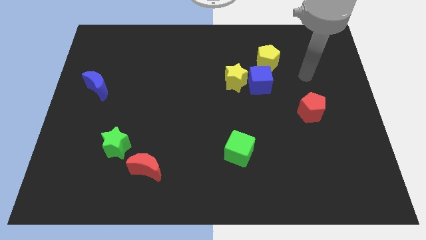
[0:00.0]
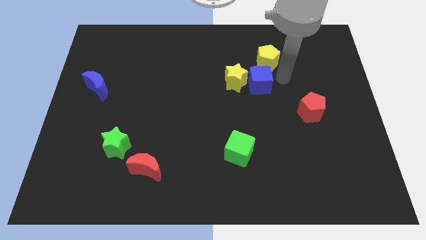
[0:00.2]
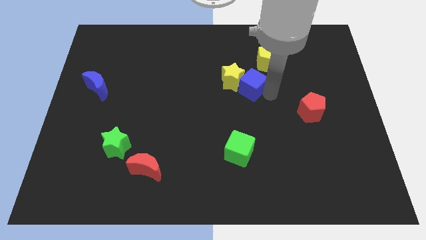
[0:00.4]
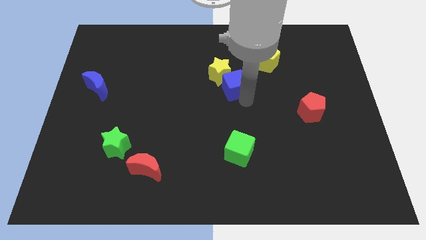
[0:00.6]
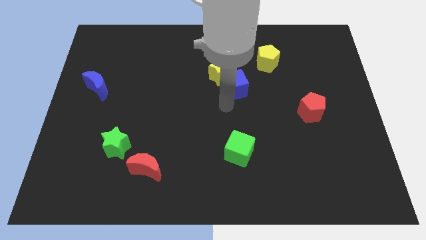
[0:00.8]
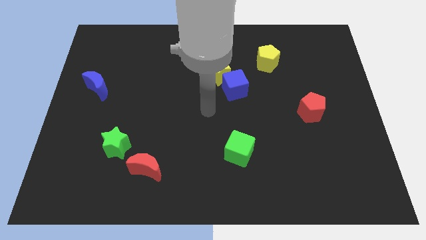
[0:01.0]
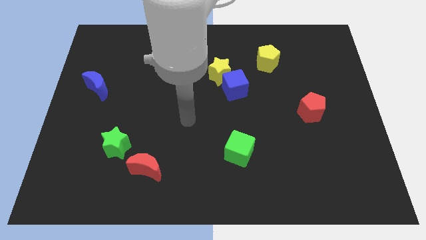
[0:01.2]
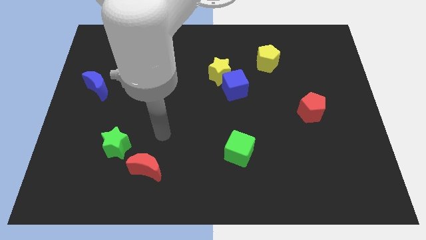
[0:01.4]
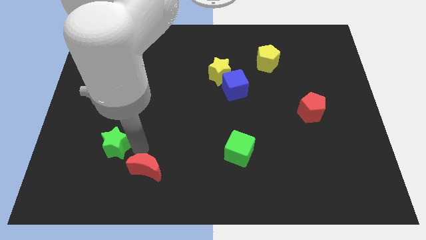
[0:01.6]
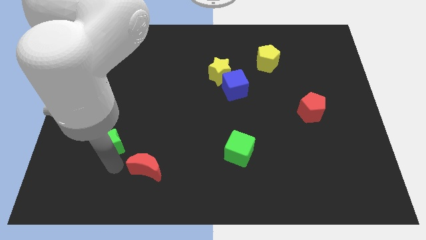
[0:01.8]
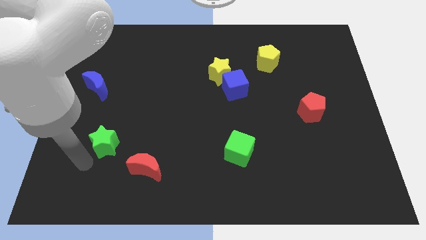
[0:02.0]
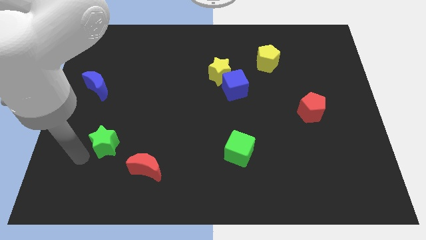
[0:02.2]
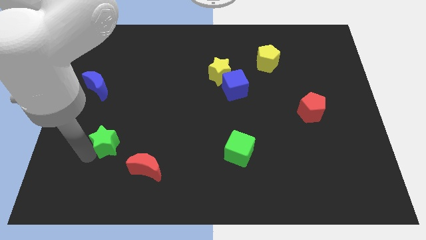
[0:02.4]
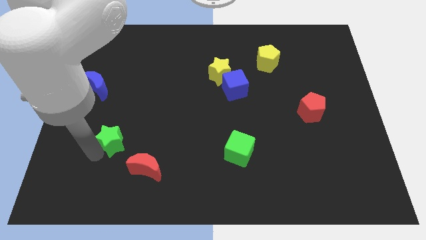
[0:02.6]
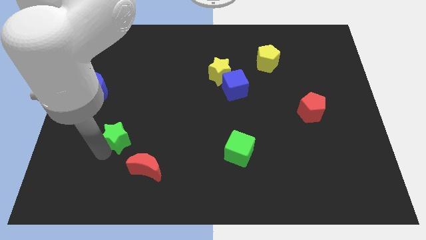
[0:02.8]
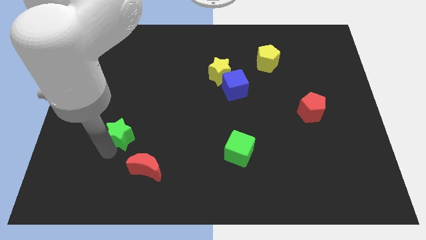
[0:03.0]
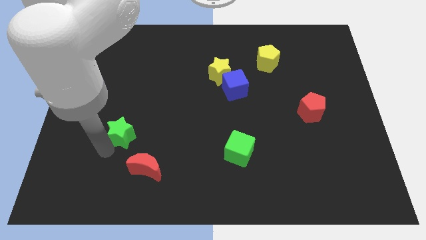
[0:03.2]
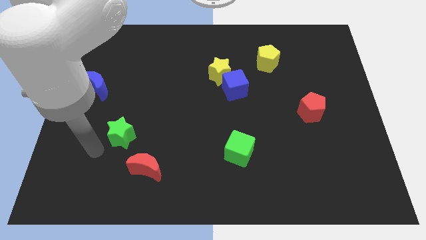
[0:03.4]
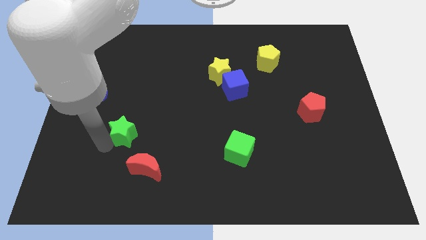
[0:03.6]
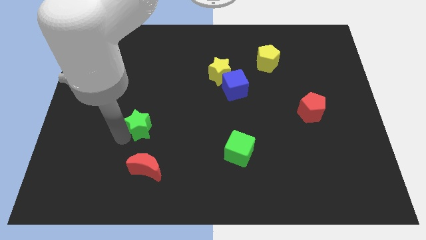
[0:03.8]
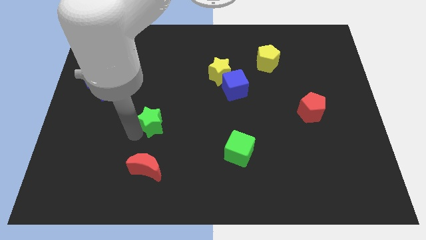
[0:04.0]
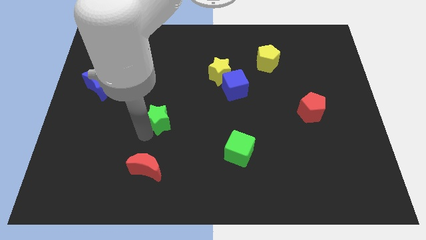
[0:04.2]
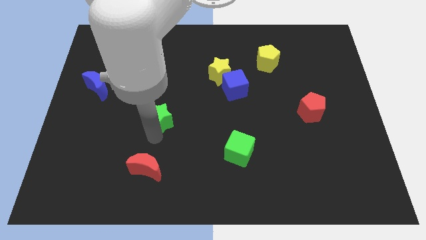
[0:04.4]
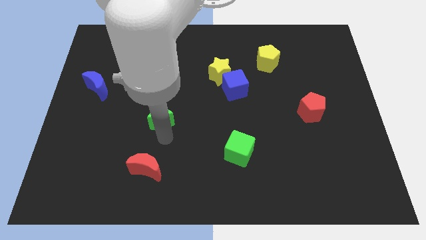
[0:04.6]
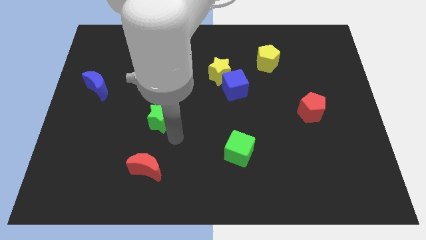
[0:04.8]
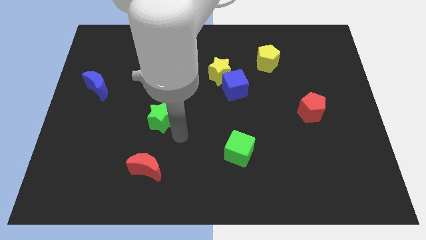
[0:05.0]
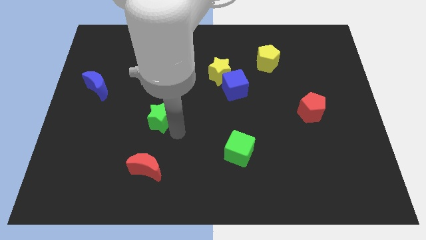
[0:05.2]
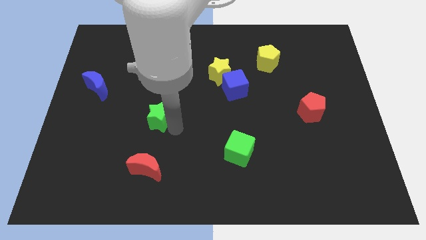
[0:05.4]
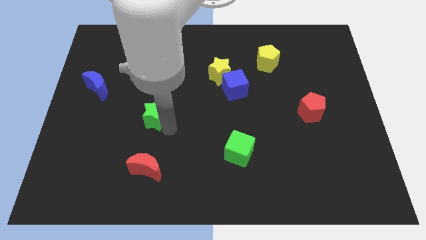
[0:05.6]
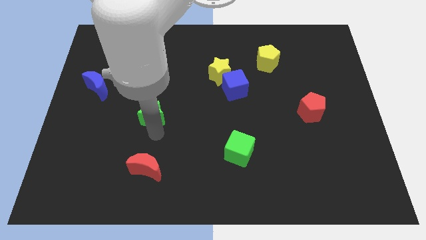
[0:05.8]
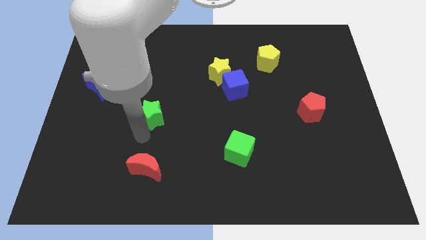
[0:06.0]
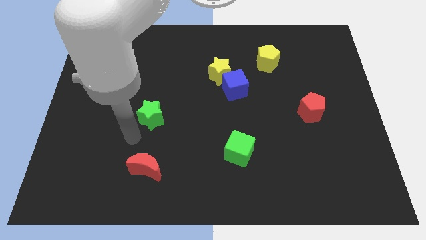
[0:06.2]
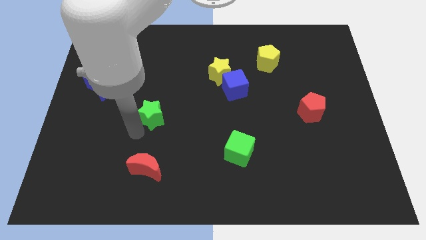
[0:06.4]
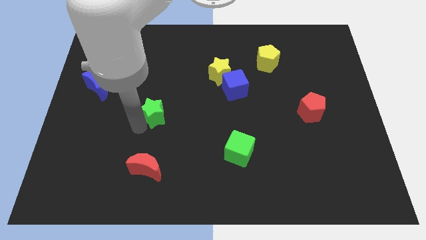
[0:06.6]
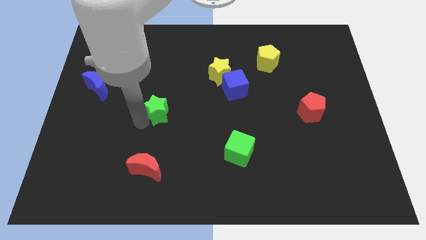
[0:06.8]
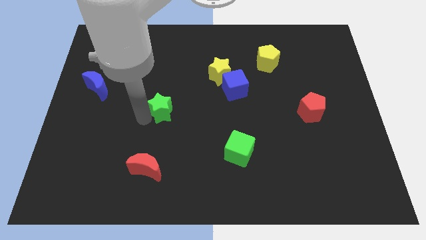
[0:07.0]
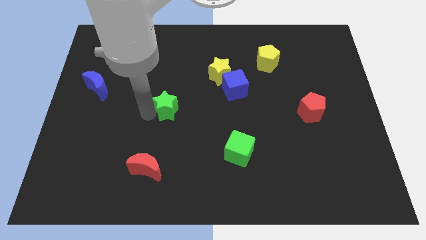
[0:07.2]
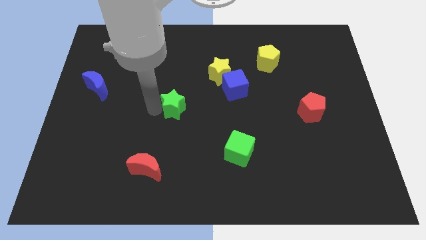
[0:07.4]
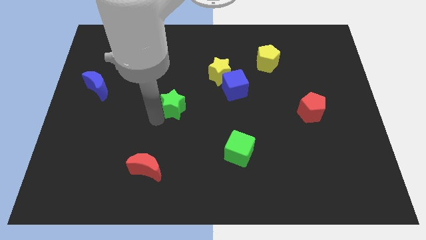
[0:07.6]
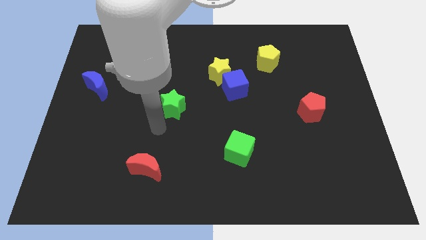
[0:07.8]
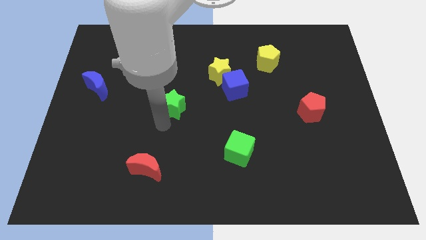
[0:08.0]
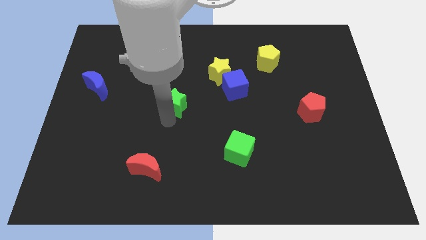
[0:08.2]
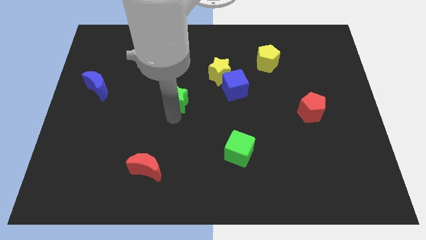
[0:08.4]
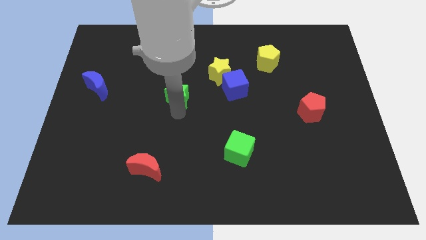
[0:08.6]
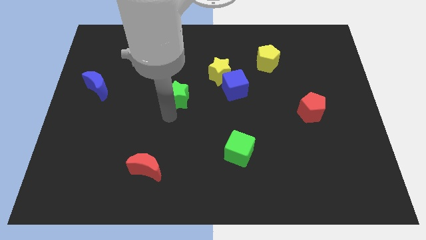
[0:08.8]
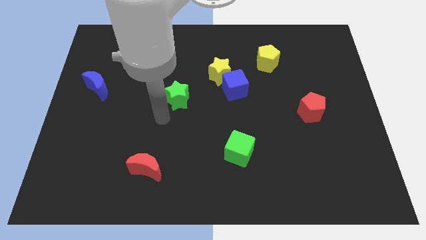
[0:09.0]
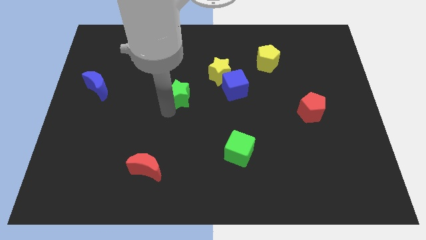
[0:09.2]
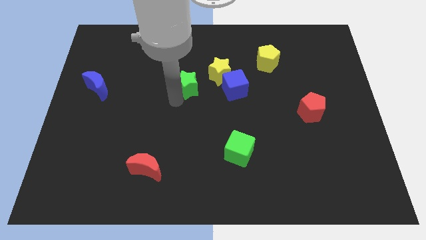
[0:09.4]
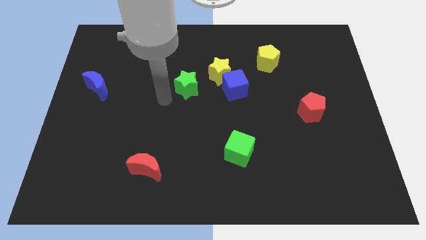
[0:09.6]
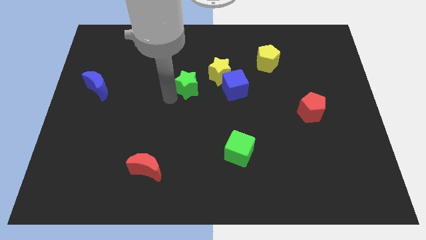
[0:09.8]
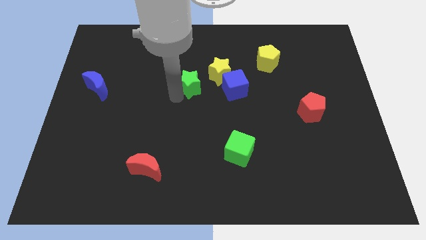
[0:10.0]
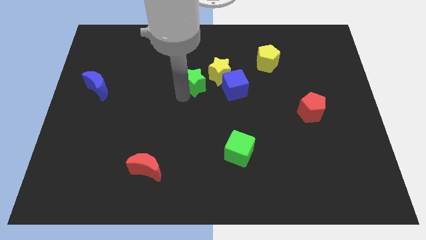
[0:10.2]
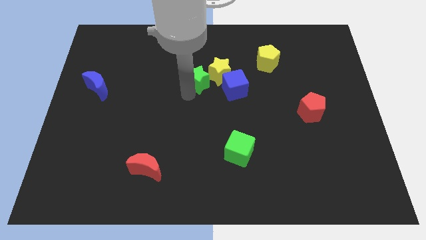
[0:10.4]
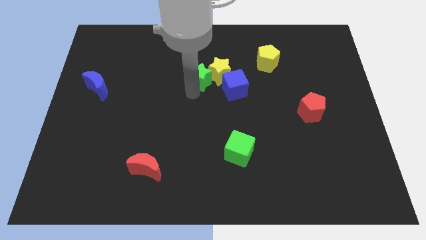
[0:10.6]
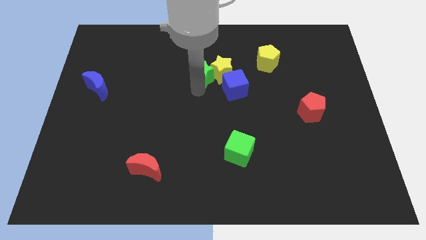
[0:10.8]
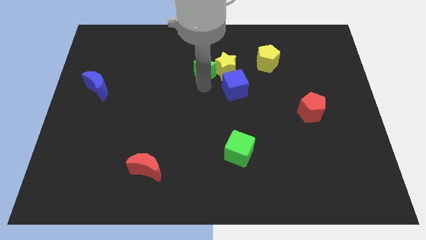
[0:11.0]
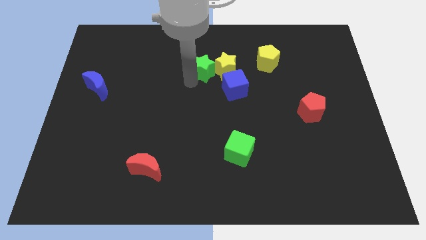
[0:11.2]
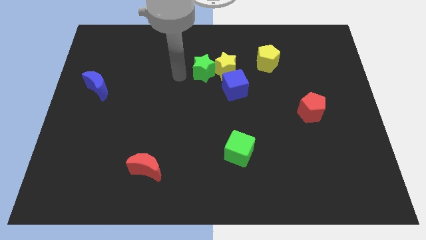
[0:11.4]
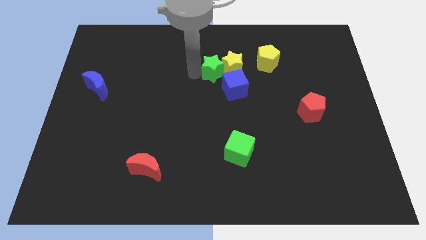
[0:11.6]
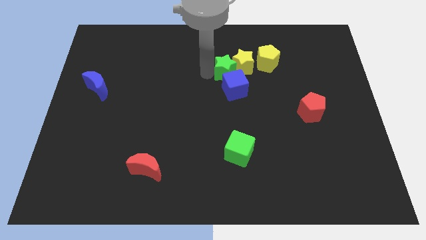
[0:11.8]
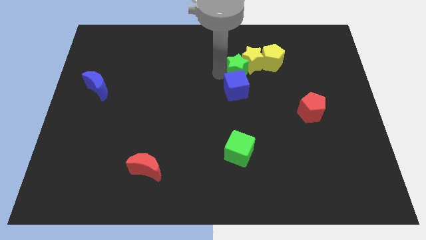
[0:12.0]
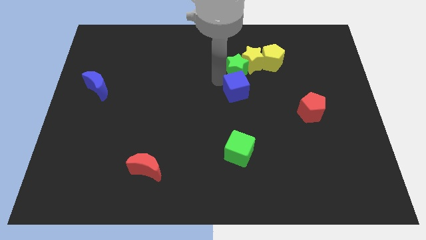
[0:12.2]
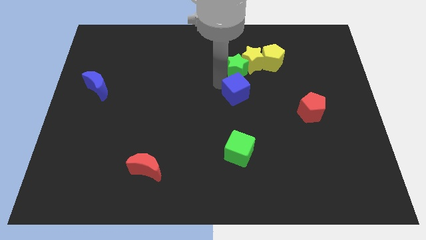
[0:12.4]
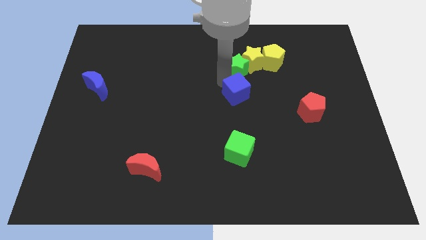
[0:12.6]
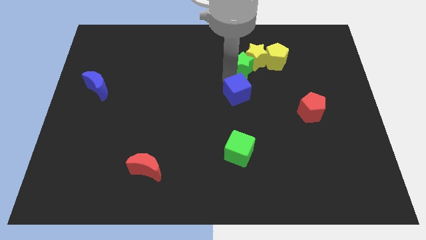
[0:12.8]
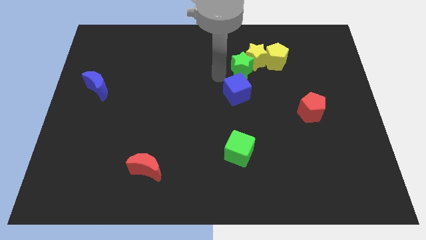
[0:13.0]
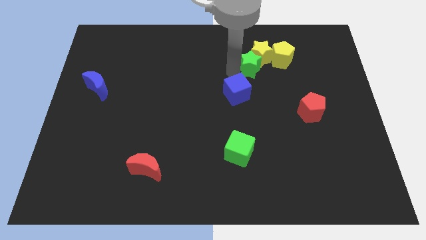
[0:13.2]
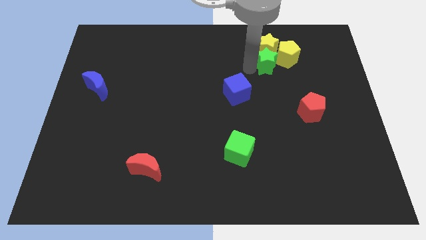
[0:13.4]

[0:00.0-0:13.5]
move the green star close to the yellow pentagon

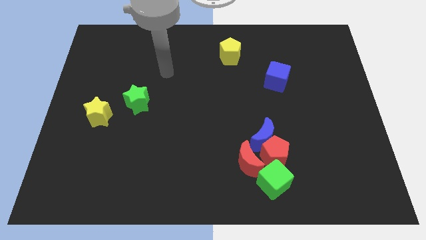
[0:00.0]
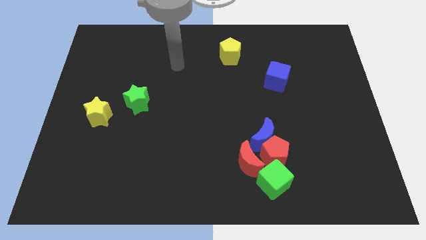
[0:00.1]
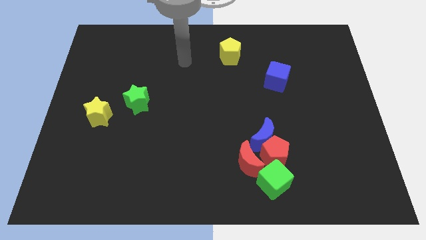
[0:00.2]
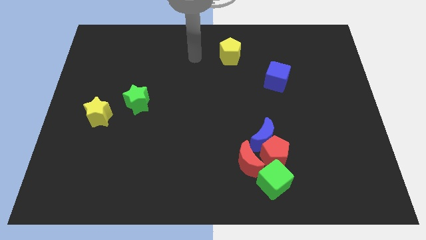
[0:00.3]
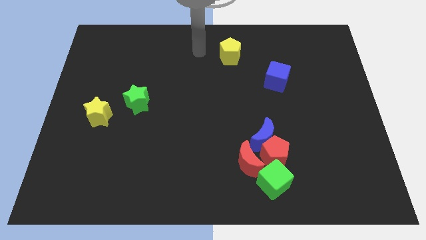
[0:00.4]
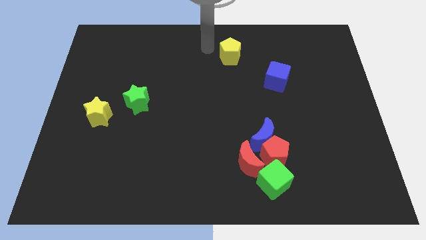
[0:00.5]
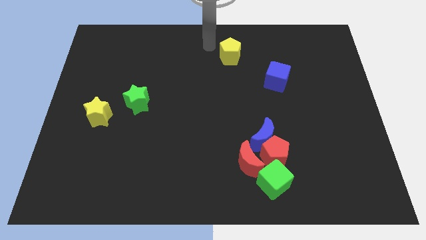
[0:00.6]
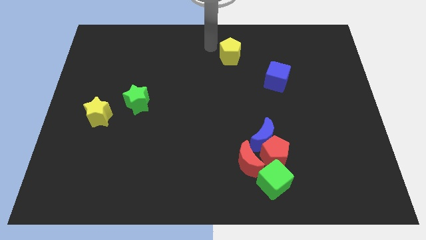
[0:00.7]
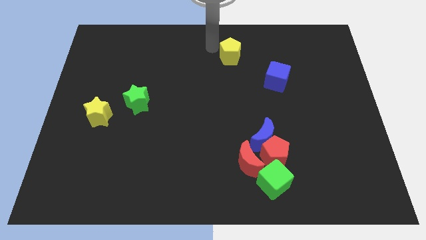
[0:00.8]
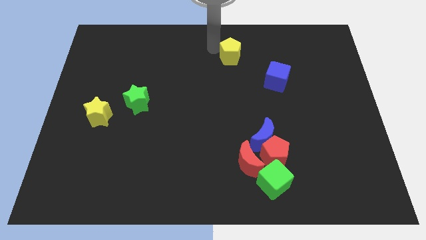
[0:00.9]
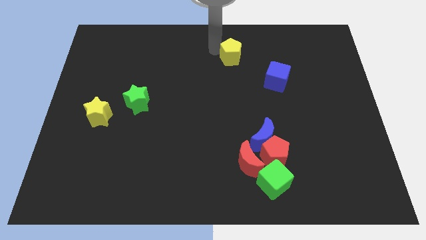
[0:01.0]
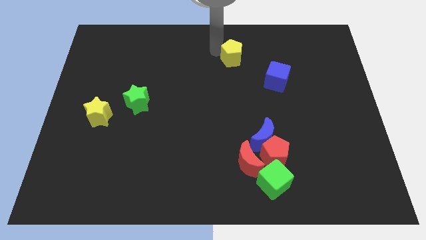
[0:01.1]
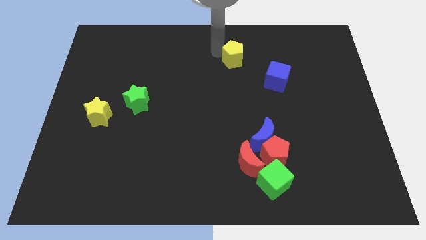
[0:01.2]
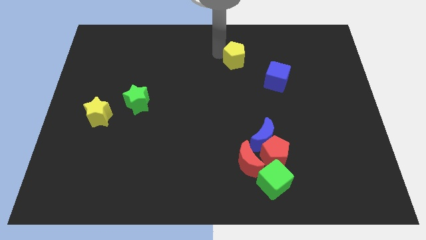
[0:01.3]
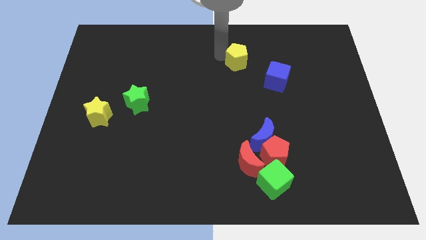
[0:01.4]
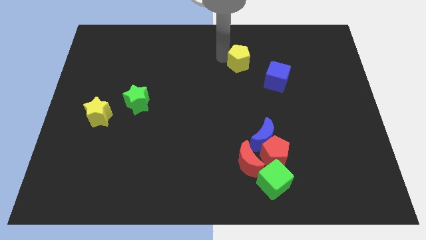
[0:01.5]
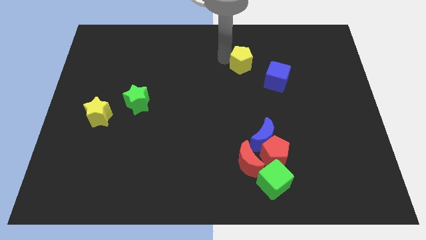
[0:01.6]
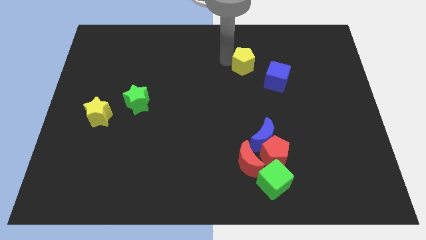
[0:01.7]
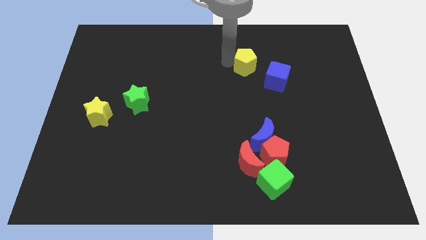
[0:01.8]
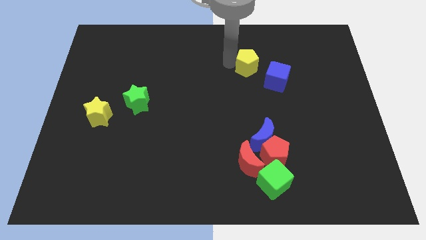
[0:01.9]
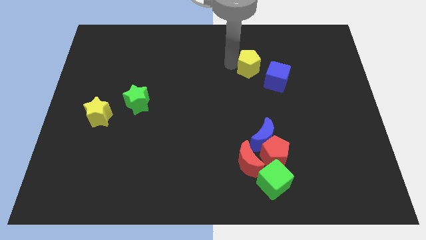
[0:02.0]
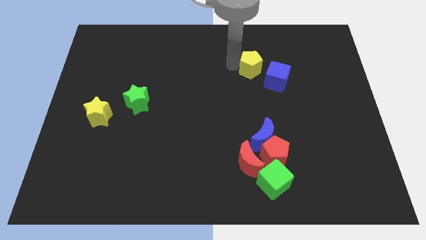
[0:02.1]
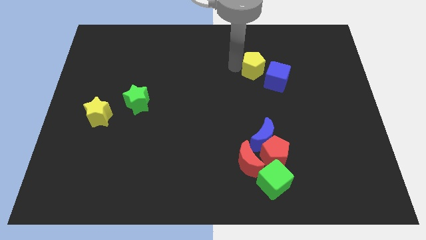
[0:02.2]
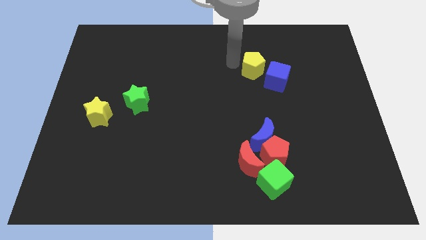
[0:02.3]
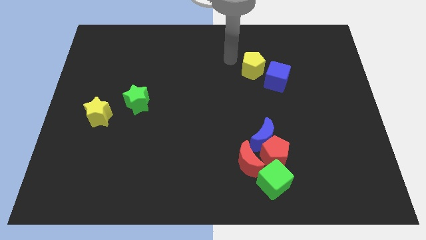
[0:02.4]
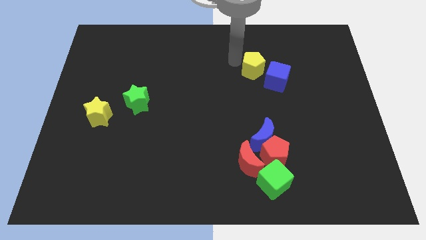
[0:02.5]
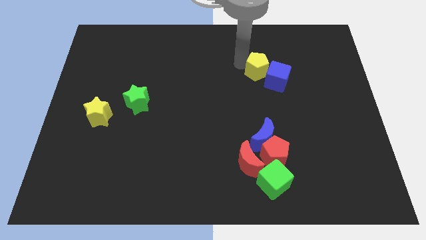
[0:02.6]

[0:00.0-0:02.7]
put the yellow pentagon towards the blue cube
